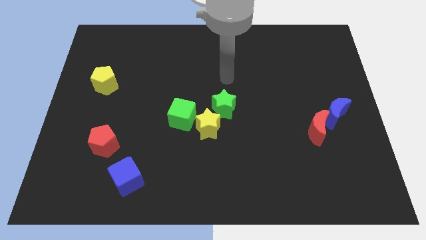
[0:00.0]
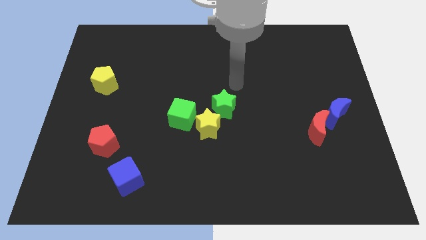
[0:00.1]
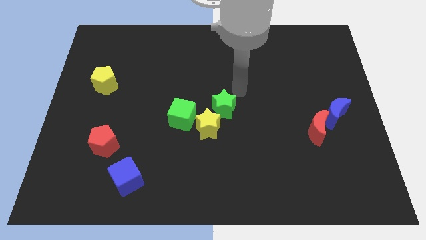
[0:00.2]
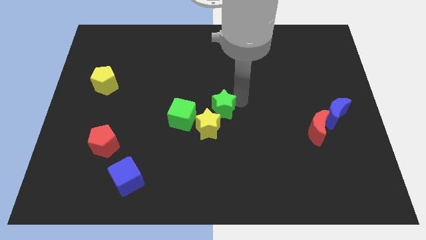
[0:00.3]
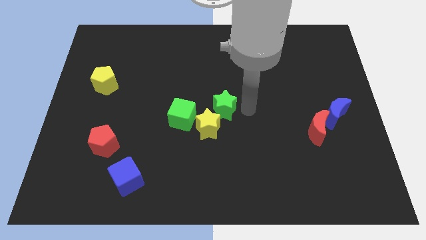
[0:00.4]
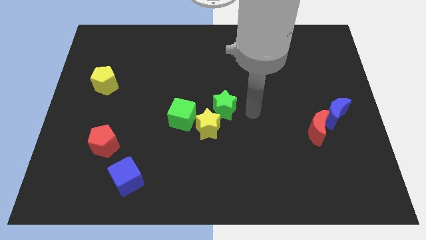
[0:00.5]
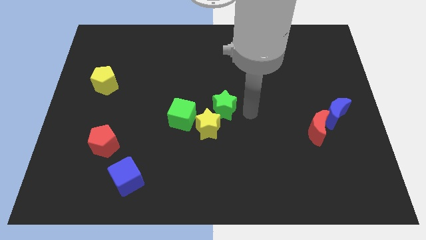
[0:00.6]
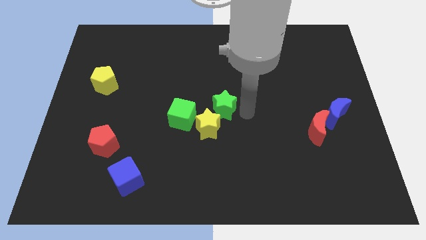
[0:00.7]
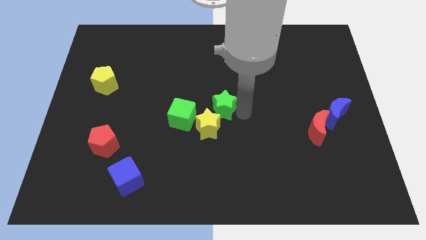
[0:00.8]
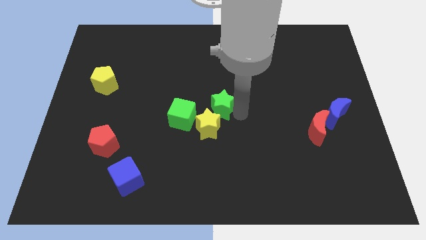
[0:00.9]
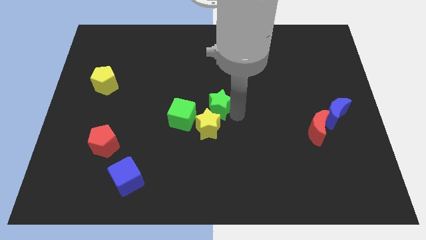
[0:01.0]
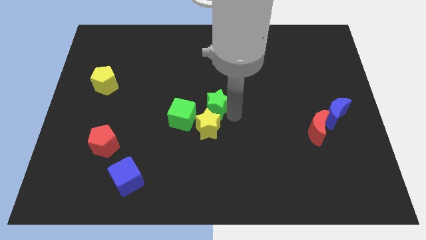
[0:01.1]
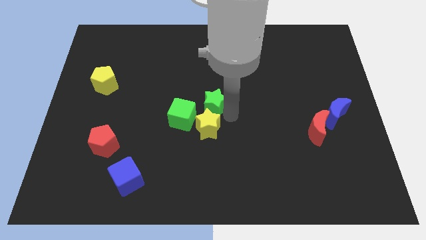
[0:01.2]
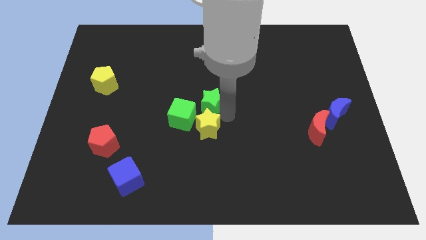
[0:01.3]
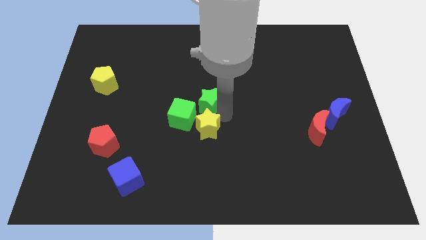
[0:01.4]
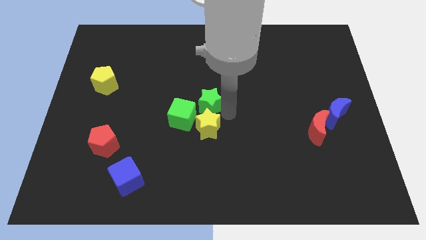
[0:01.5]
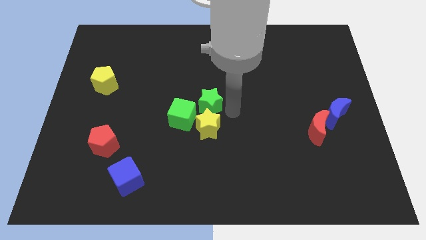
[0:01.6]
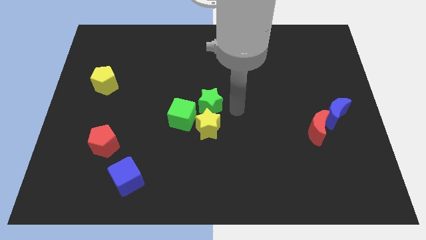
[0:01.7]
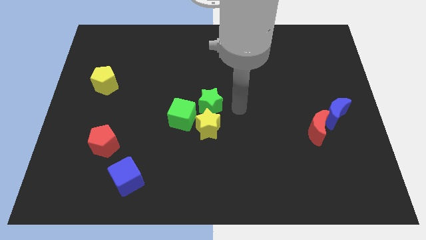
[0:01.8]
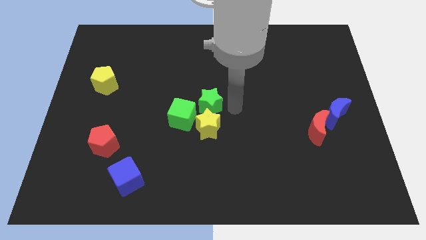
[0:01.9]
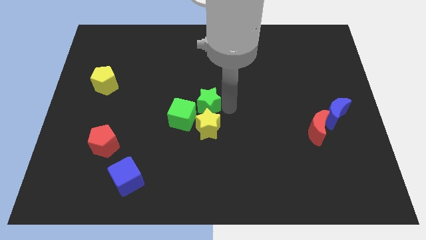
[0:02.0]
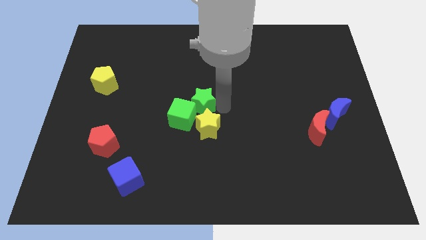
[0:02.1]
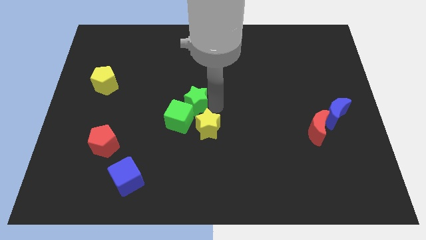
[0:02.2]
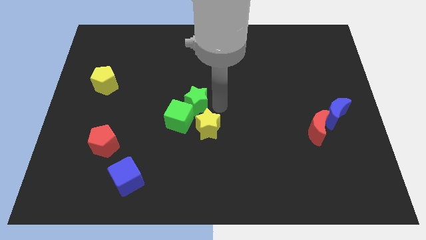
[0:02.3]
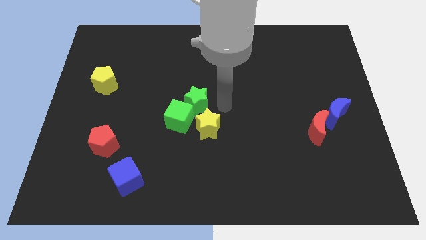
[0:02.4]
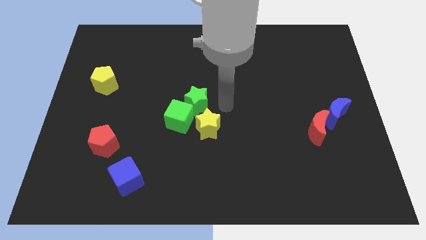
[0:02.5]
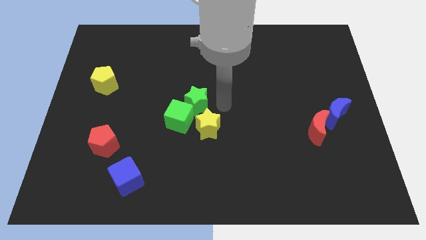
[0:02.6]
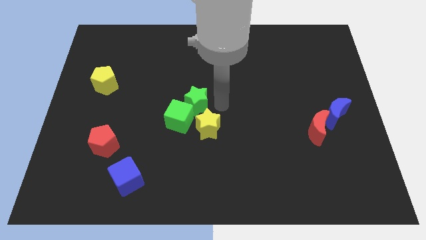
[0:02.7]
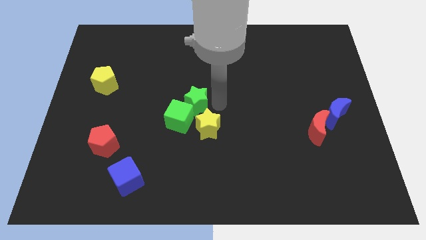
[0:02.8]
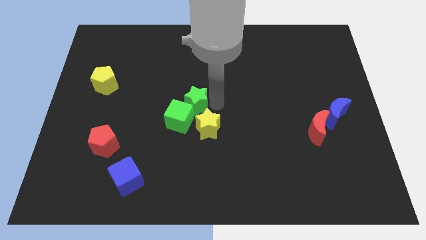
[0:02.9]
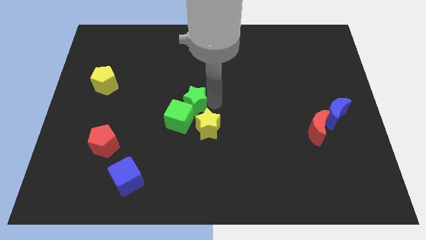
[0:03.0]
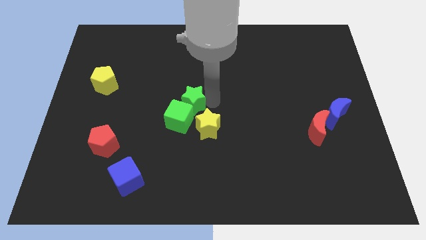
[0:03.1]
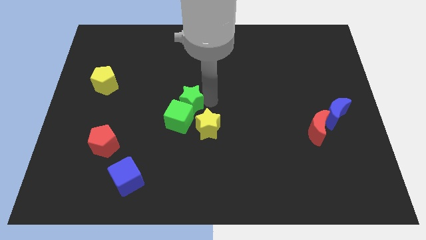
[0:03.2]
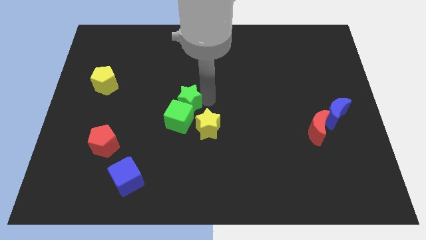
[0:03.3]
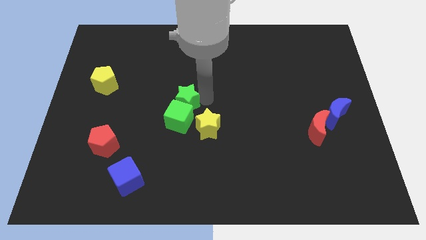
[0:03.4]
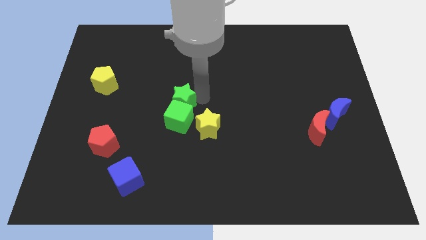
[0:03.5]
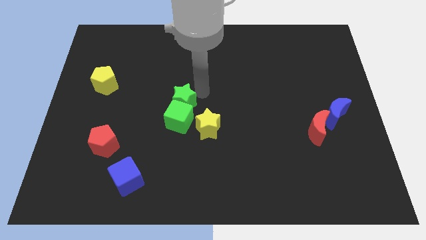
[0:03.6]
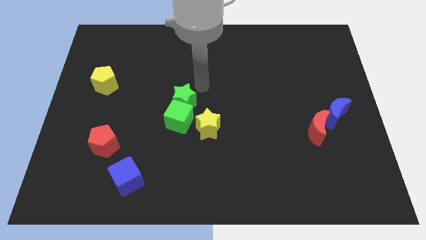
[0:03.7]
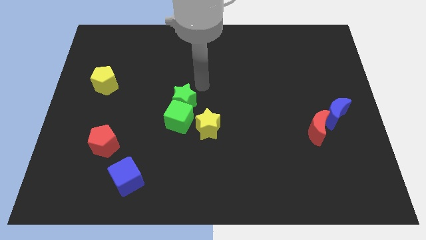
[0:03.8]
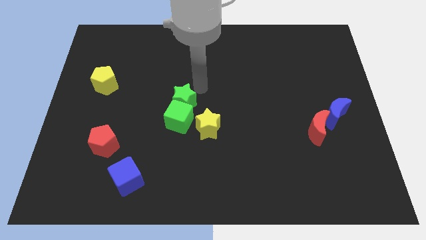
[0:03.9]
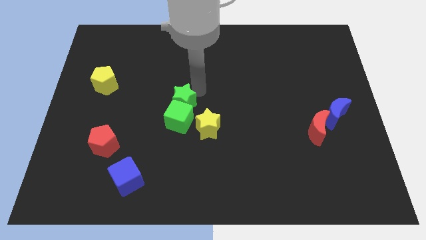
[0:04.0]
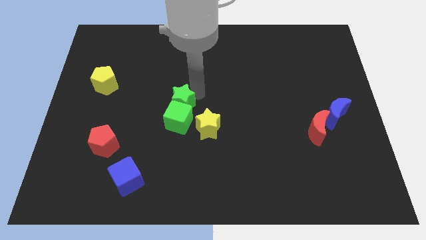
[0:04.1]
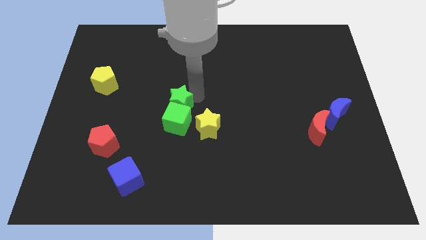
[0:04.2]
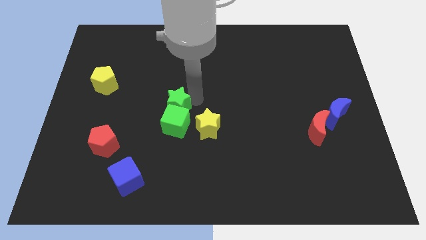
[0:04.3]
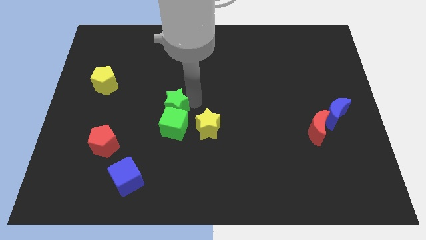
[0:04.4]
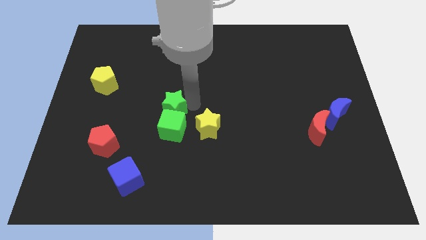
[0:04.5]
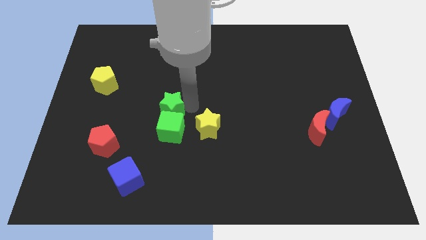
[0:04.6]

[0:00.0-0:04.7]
push the green star just left of the yellow star

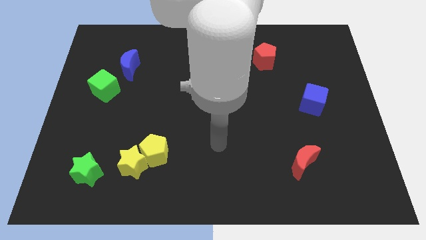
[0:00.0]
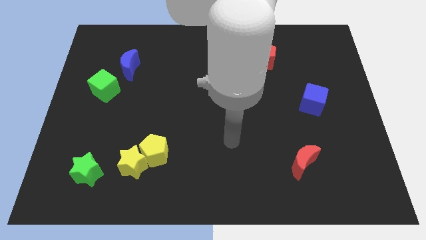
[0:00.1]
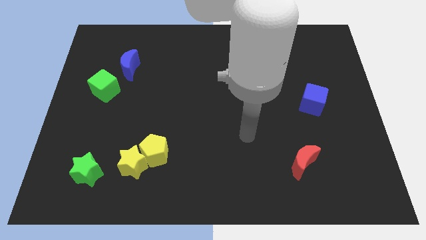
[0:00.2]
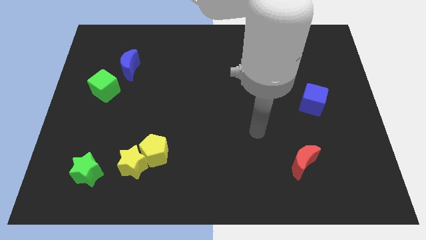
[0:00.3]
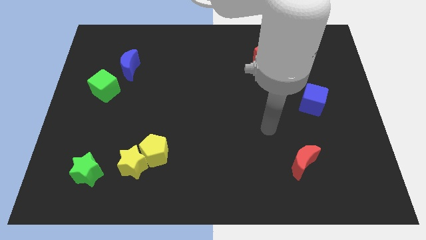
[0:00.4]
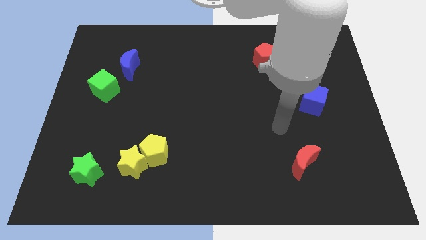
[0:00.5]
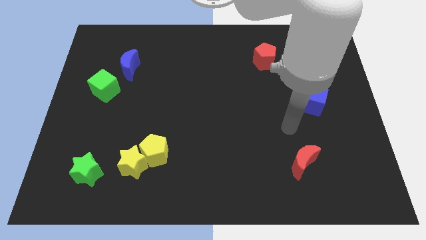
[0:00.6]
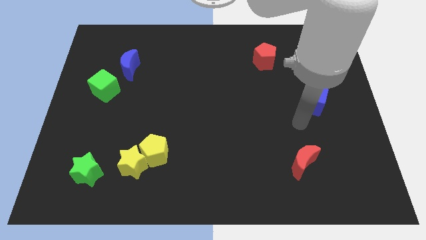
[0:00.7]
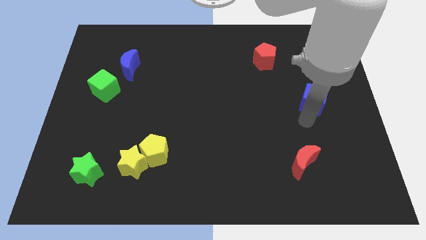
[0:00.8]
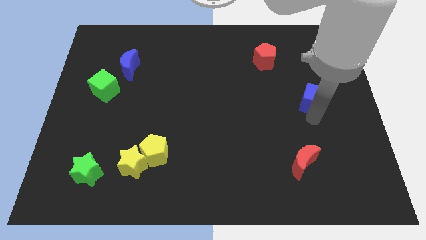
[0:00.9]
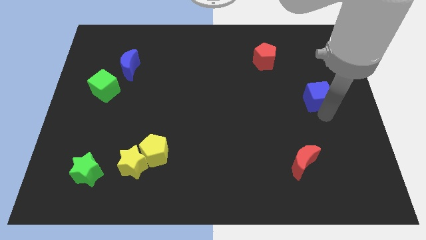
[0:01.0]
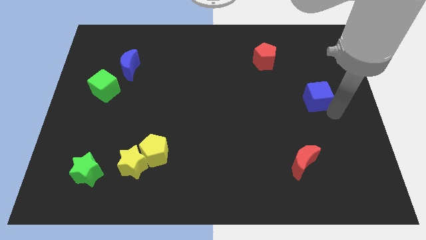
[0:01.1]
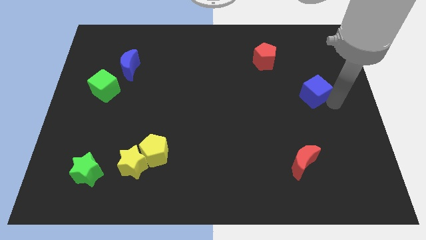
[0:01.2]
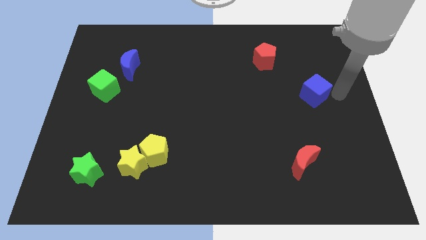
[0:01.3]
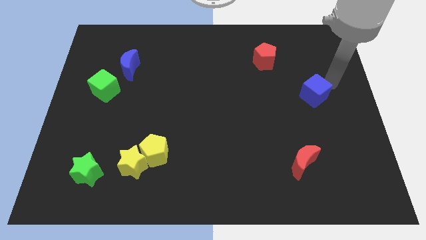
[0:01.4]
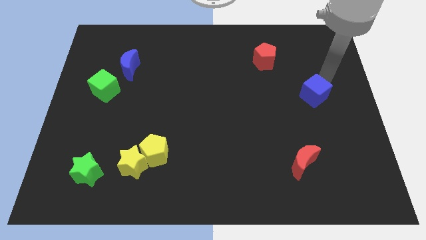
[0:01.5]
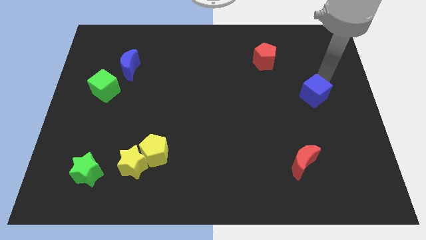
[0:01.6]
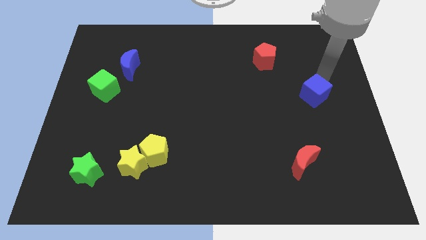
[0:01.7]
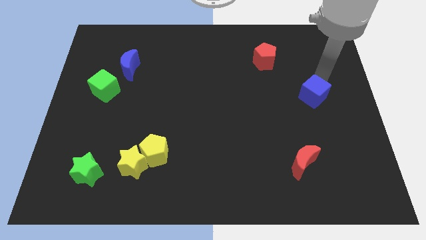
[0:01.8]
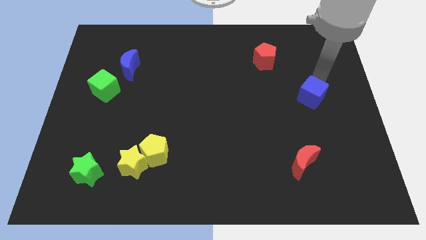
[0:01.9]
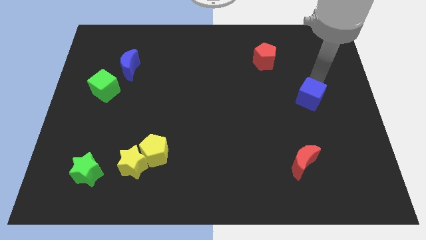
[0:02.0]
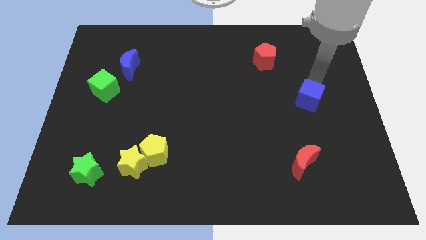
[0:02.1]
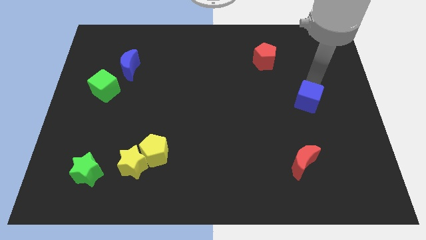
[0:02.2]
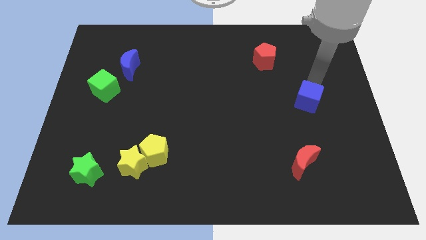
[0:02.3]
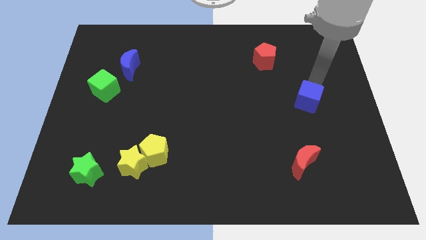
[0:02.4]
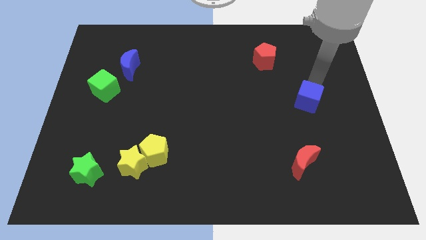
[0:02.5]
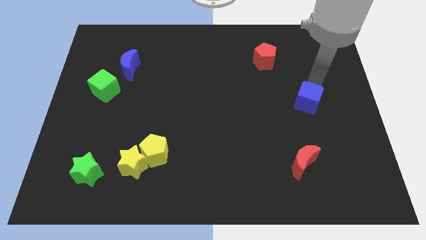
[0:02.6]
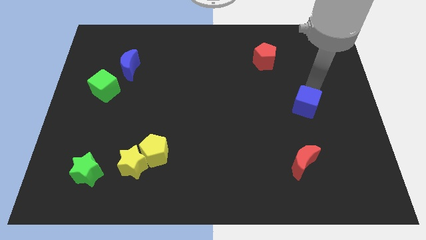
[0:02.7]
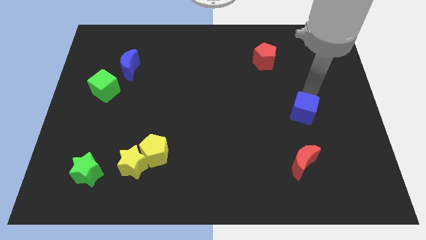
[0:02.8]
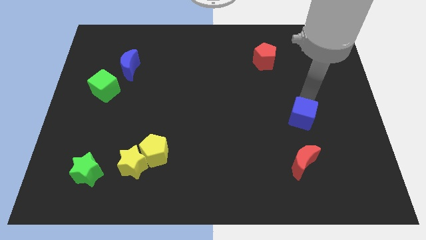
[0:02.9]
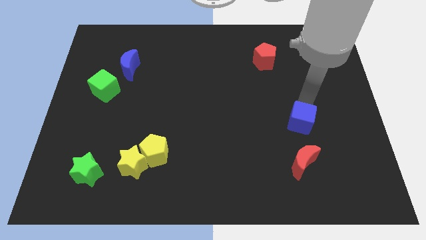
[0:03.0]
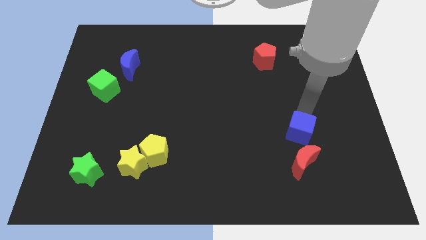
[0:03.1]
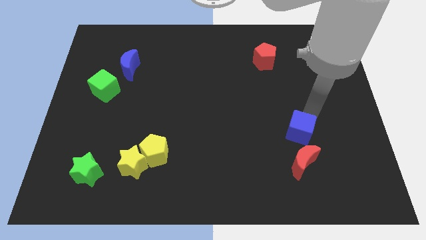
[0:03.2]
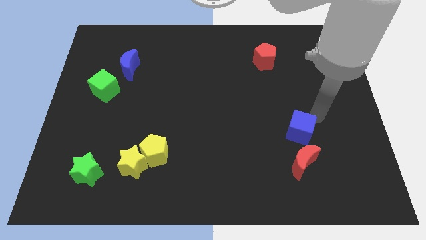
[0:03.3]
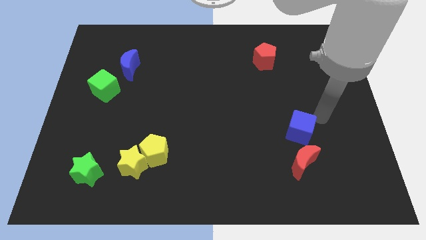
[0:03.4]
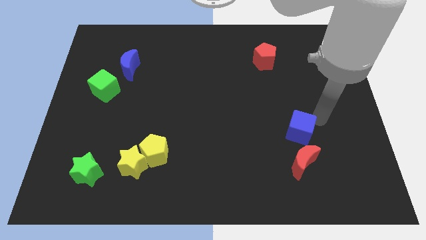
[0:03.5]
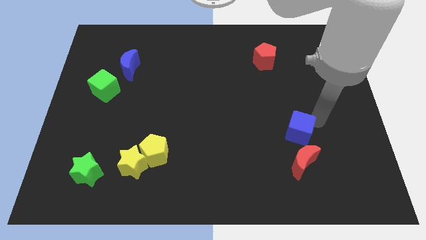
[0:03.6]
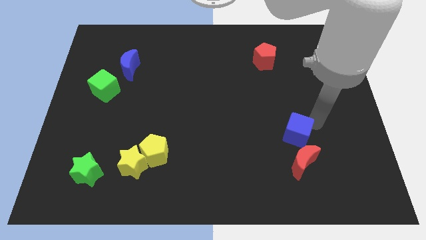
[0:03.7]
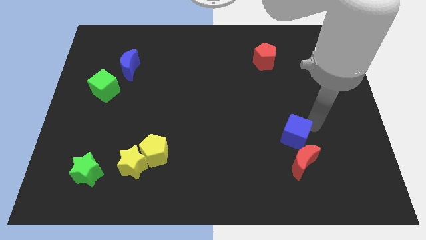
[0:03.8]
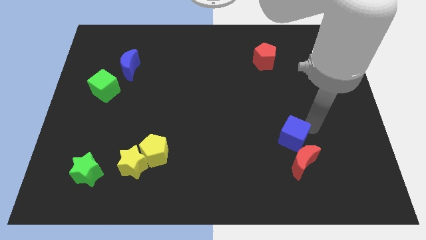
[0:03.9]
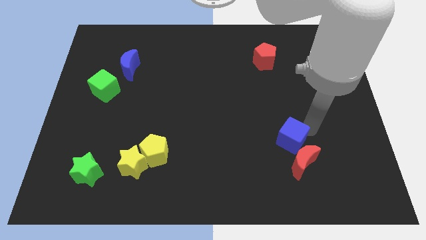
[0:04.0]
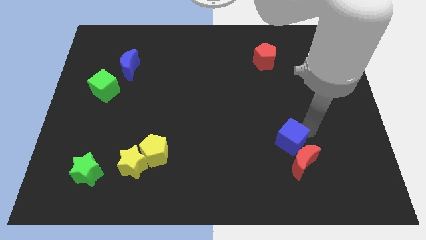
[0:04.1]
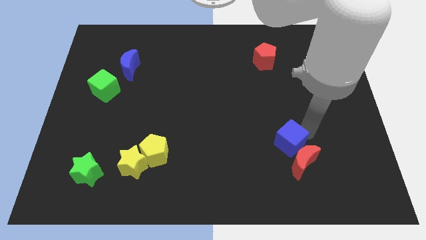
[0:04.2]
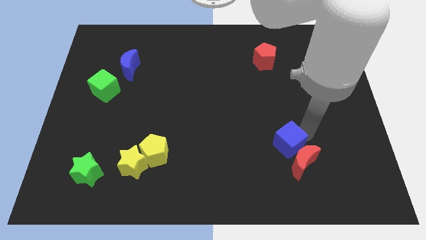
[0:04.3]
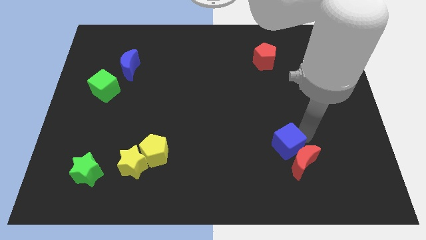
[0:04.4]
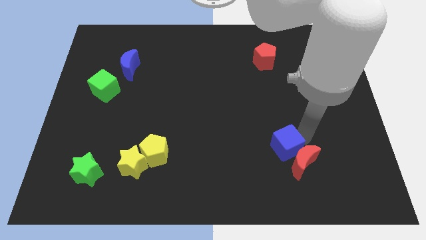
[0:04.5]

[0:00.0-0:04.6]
put the blue cube just left of the red moon
